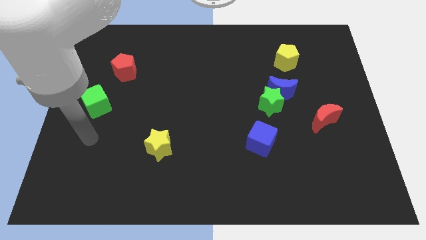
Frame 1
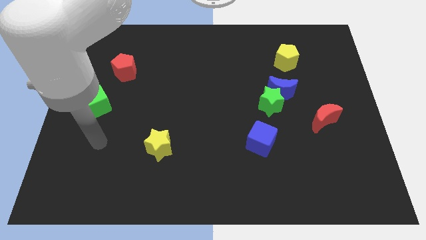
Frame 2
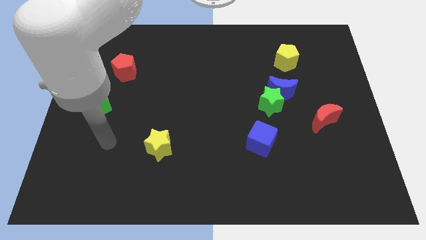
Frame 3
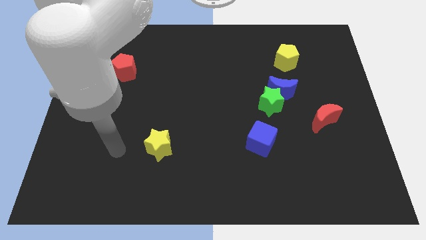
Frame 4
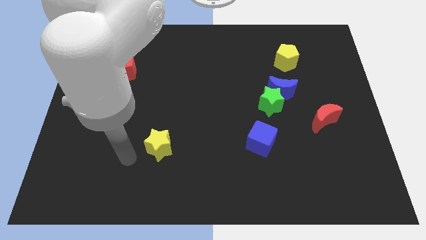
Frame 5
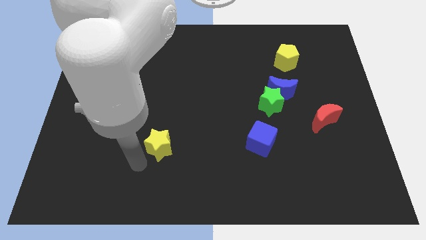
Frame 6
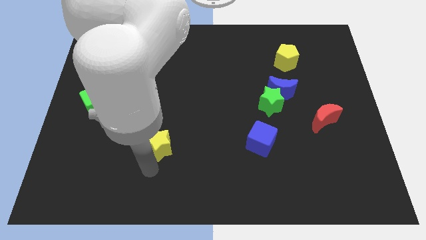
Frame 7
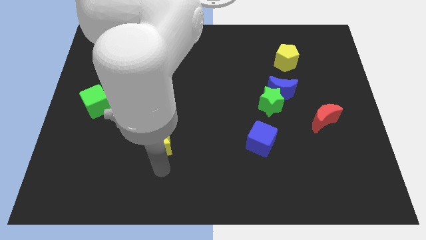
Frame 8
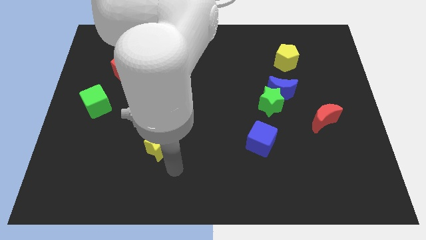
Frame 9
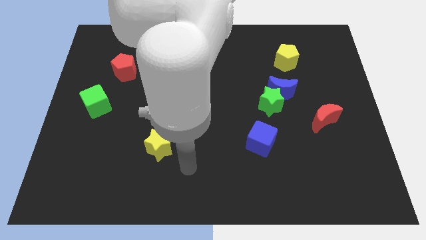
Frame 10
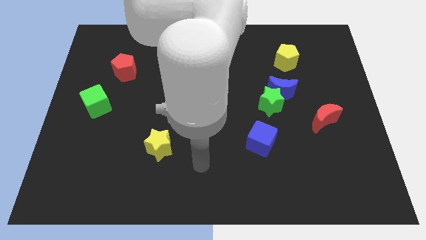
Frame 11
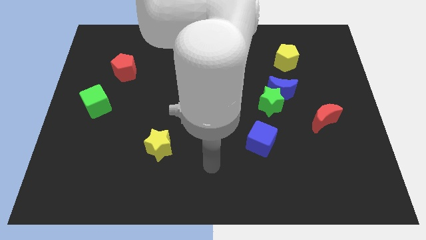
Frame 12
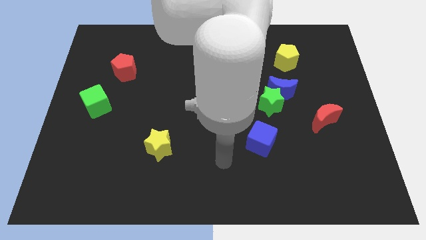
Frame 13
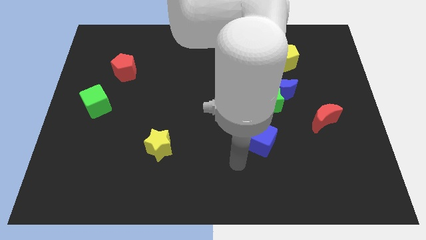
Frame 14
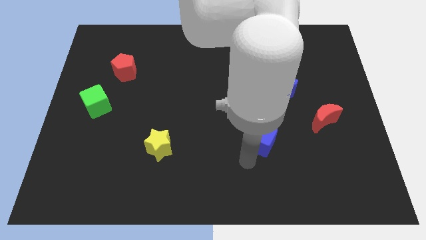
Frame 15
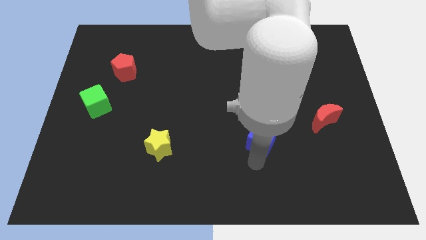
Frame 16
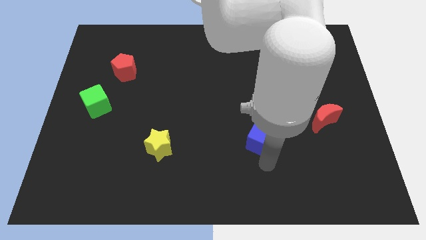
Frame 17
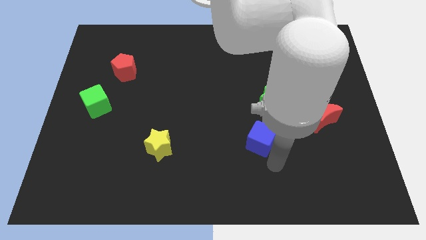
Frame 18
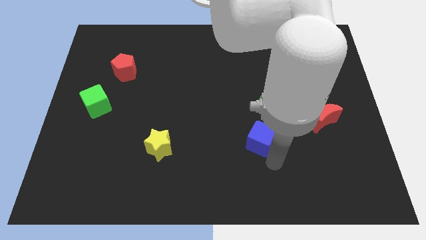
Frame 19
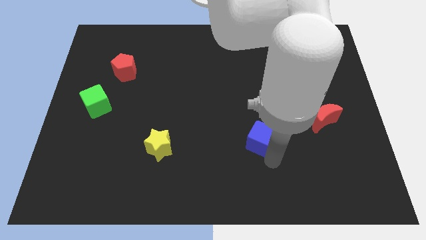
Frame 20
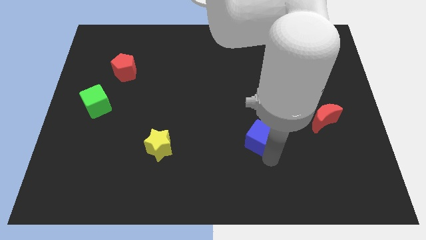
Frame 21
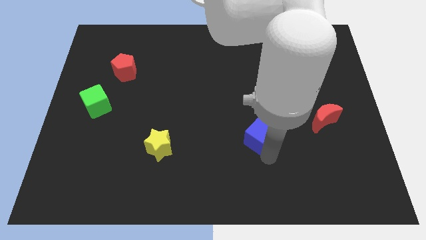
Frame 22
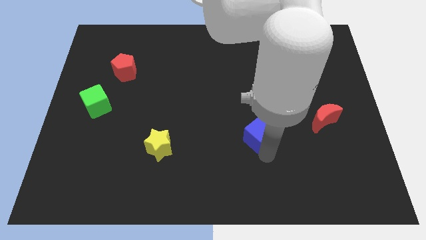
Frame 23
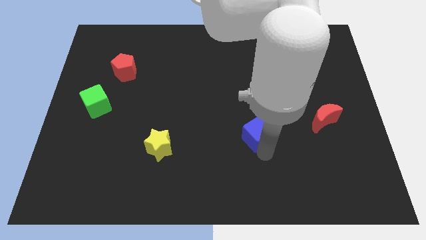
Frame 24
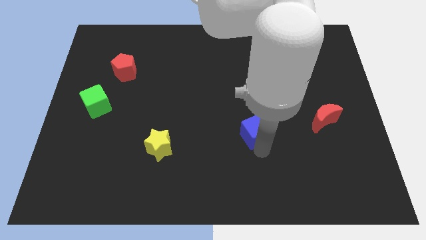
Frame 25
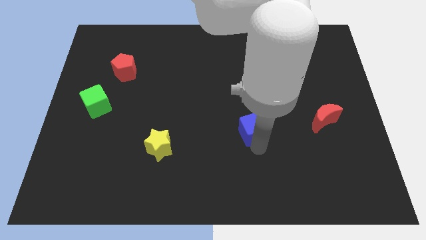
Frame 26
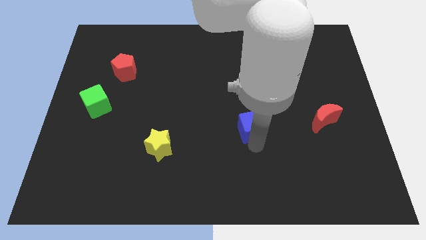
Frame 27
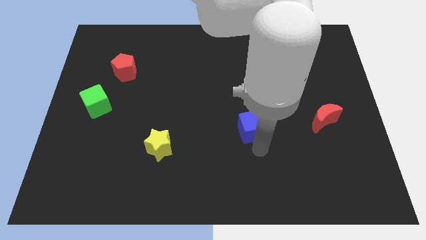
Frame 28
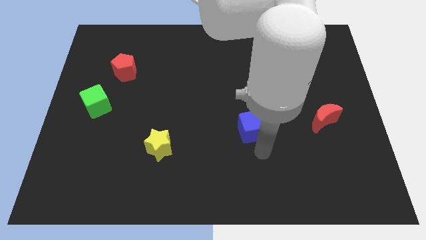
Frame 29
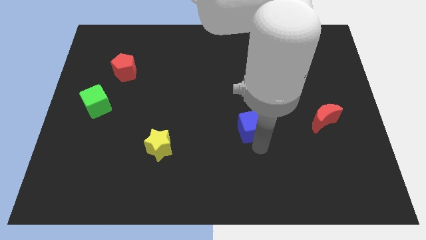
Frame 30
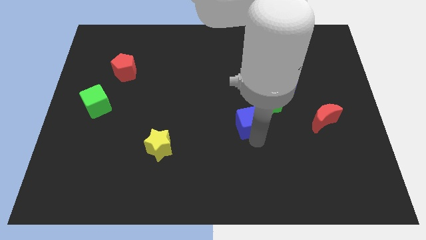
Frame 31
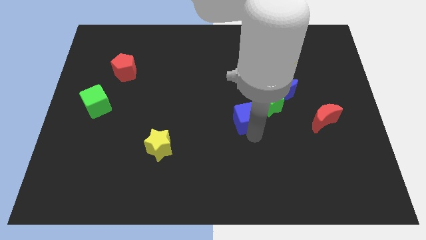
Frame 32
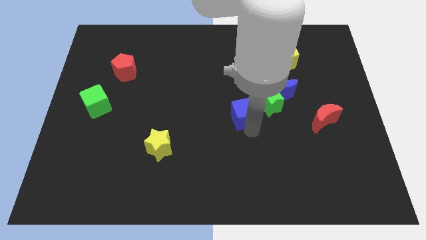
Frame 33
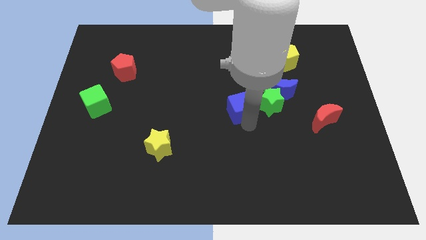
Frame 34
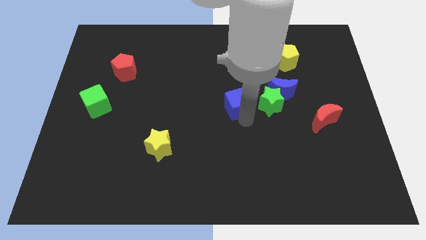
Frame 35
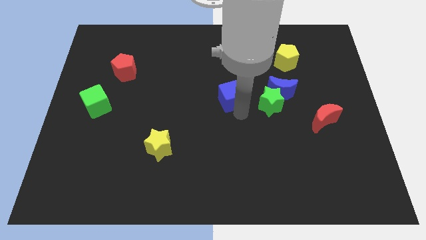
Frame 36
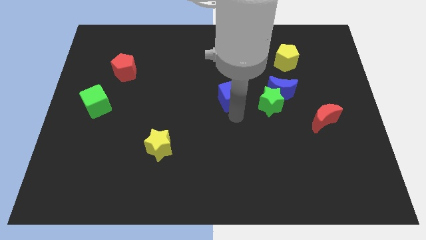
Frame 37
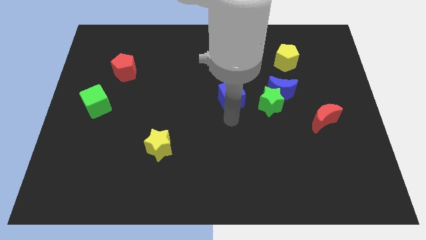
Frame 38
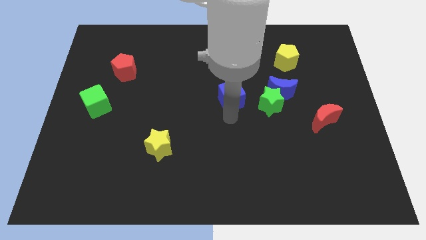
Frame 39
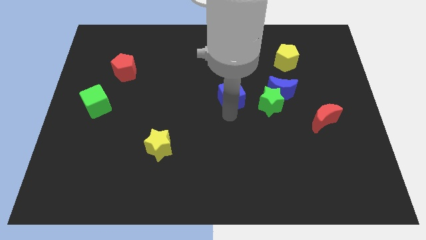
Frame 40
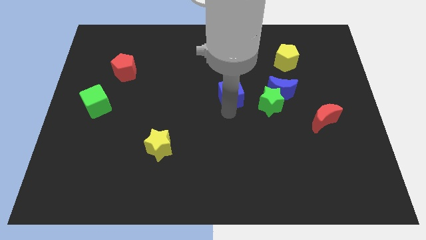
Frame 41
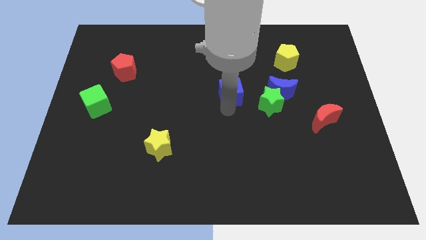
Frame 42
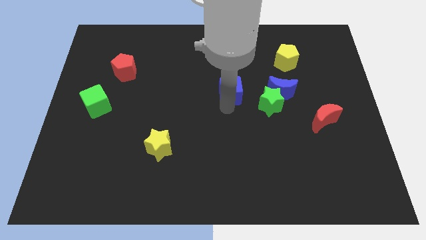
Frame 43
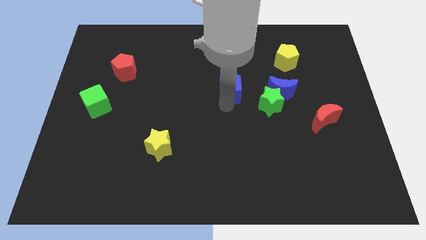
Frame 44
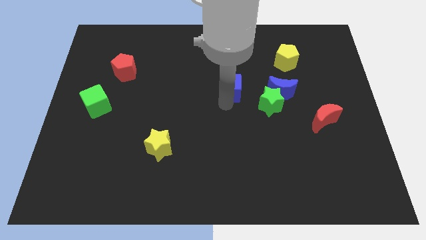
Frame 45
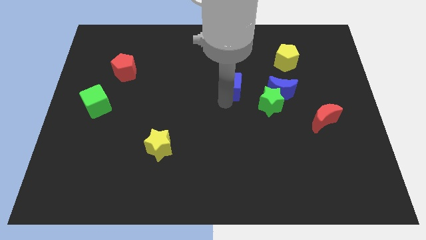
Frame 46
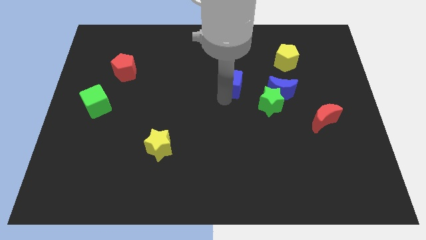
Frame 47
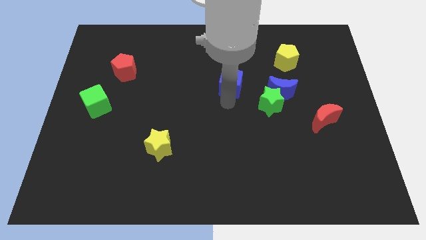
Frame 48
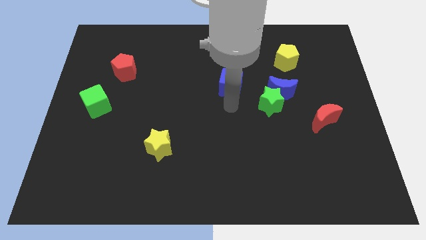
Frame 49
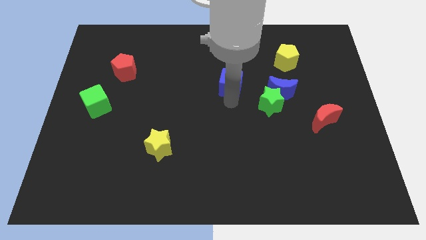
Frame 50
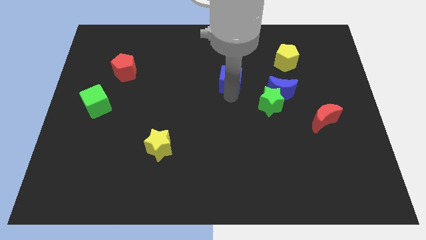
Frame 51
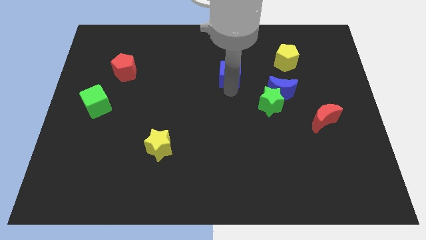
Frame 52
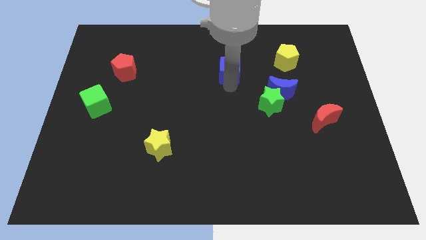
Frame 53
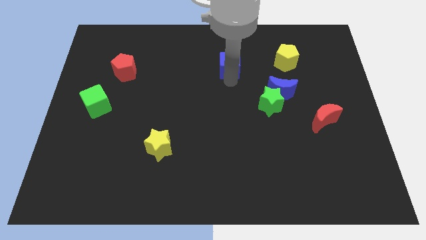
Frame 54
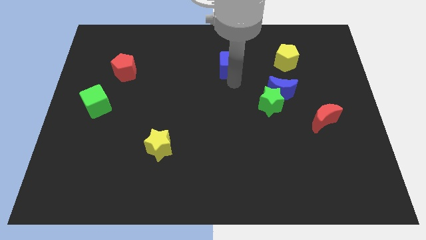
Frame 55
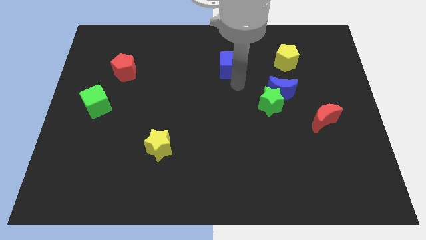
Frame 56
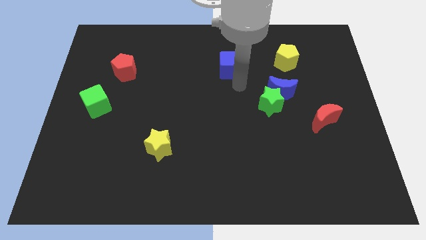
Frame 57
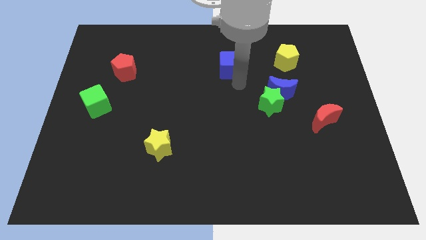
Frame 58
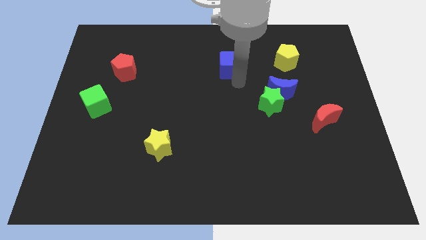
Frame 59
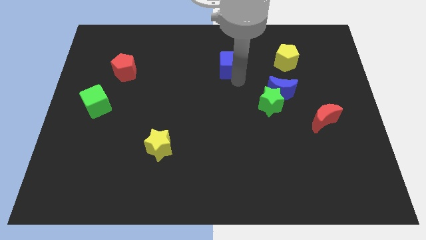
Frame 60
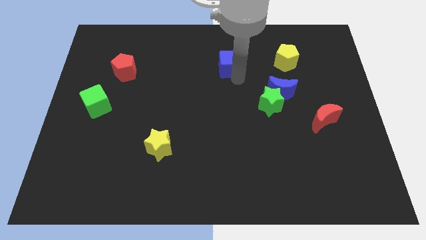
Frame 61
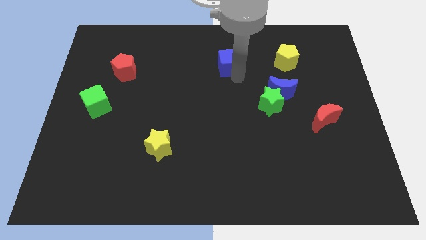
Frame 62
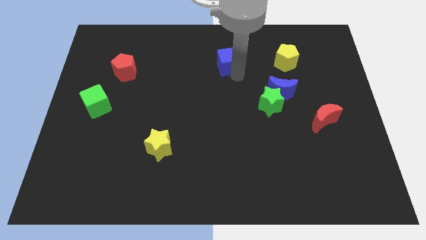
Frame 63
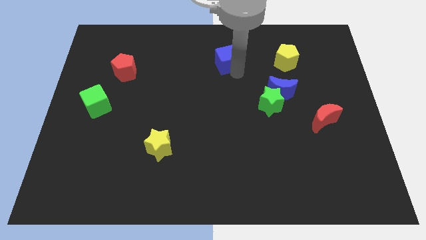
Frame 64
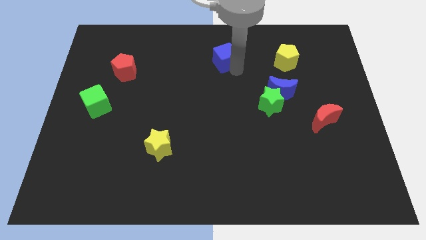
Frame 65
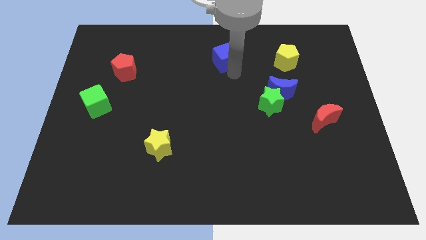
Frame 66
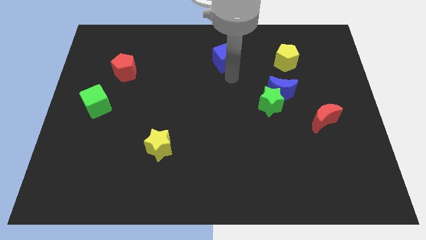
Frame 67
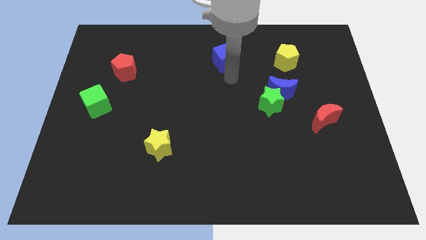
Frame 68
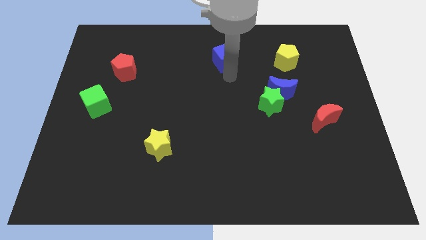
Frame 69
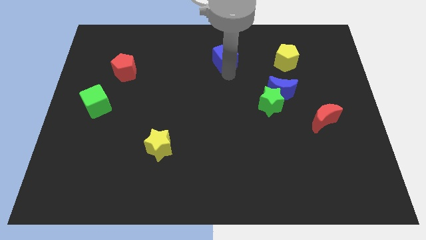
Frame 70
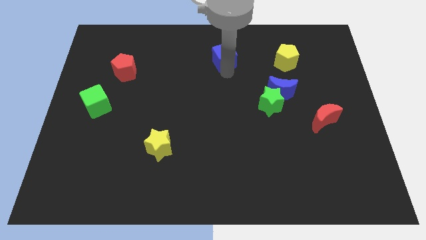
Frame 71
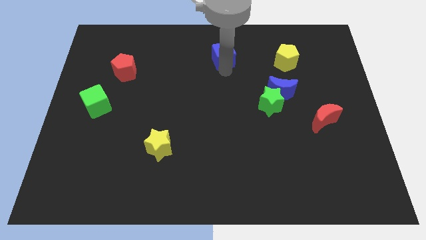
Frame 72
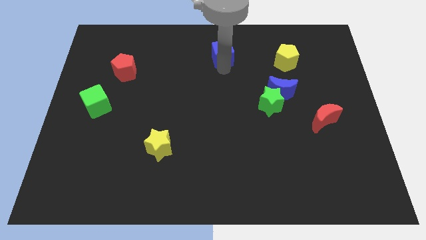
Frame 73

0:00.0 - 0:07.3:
move the blue cube to the top
